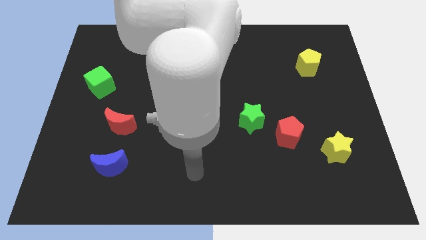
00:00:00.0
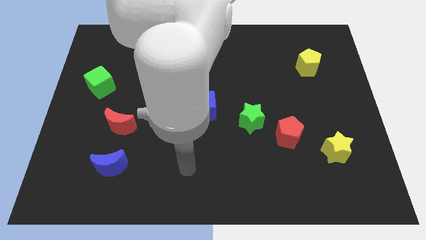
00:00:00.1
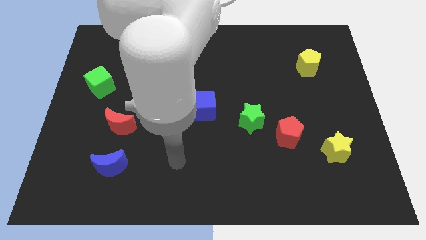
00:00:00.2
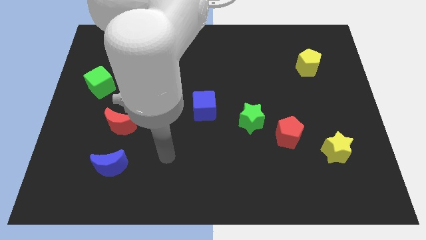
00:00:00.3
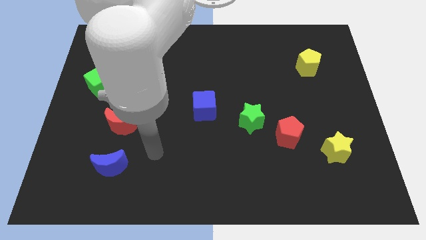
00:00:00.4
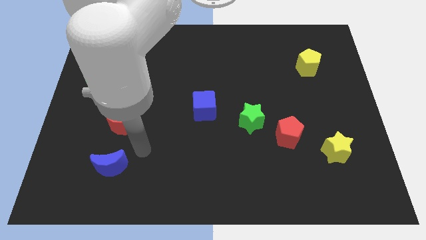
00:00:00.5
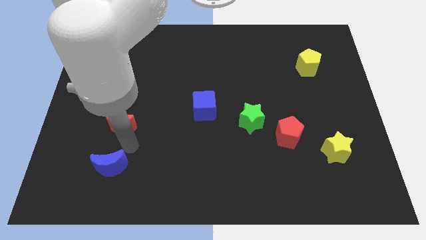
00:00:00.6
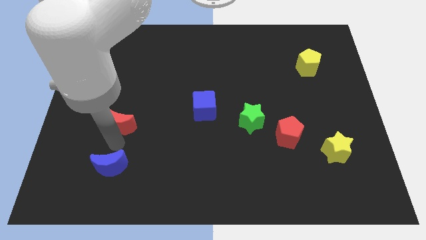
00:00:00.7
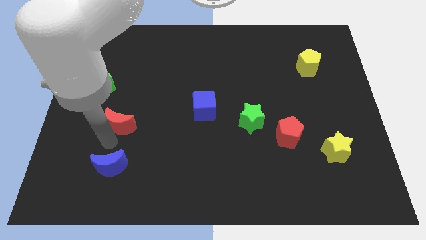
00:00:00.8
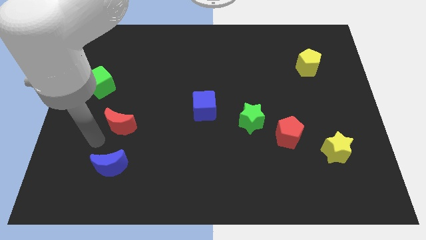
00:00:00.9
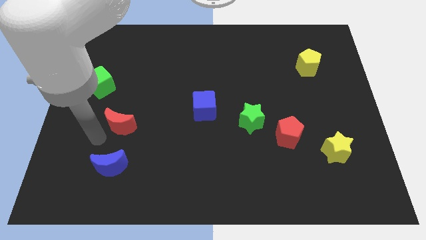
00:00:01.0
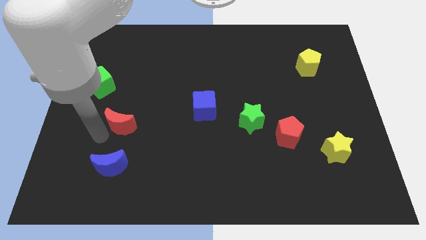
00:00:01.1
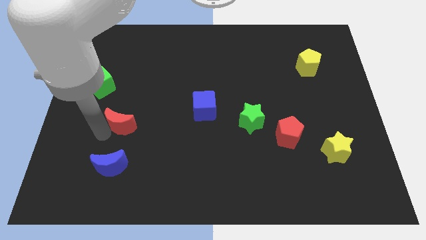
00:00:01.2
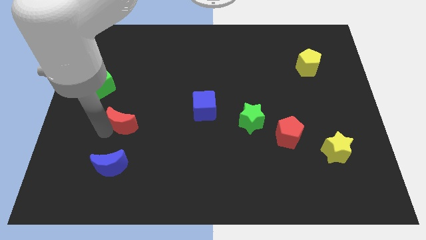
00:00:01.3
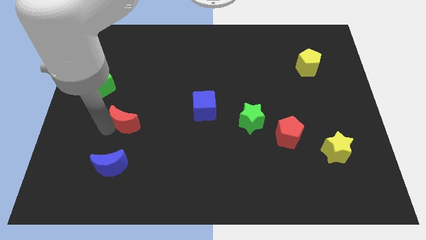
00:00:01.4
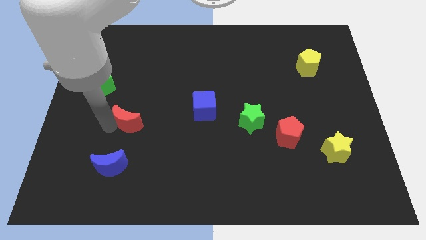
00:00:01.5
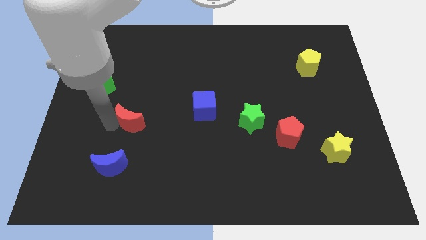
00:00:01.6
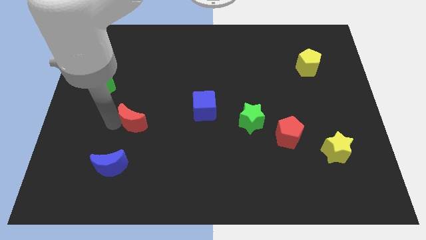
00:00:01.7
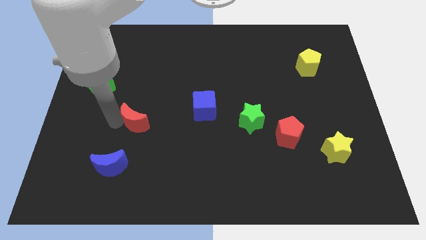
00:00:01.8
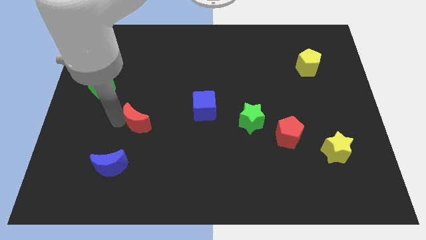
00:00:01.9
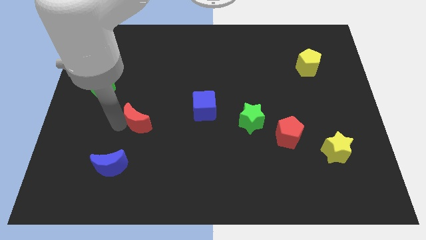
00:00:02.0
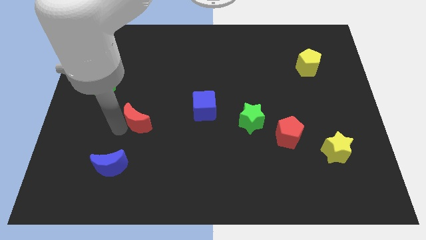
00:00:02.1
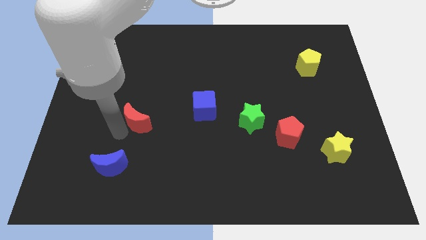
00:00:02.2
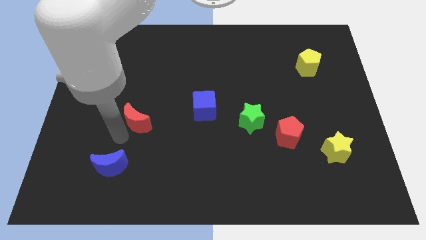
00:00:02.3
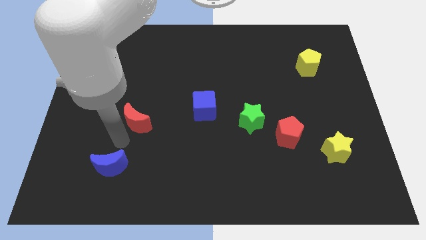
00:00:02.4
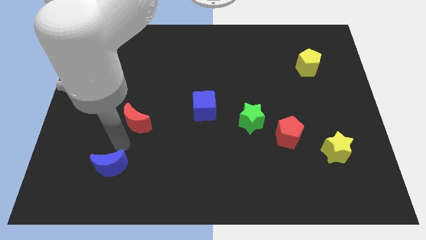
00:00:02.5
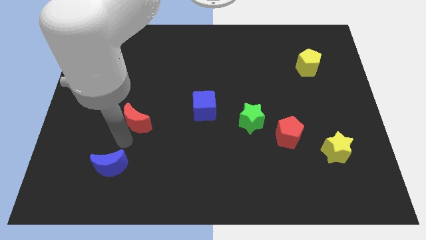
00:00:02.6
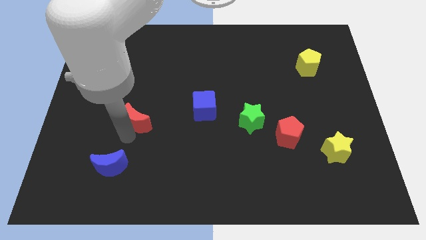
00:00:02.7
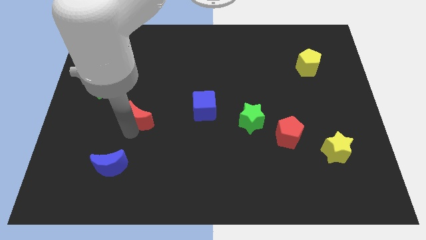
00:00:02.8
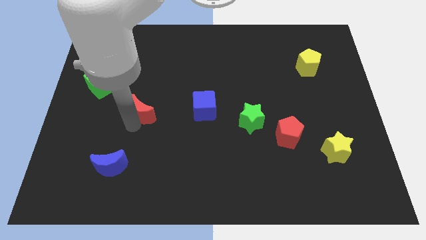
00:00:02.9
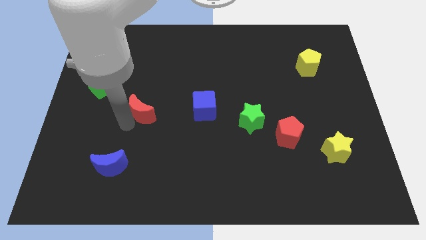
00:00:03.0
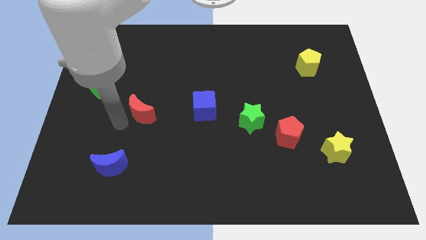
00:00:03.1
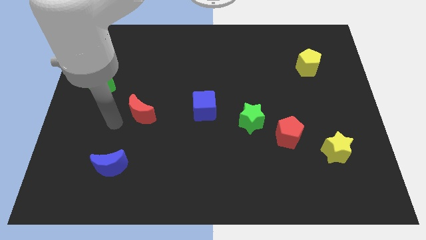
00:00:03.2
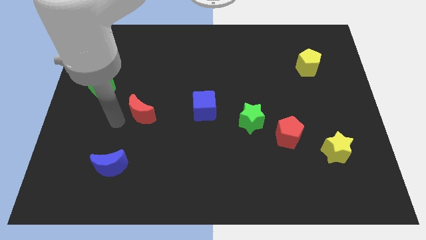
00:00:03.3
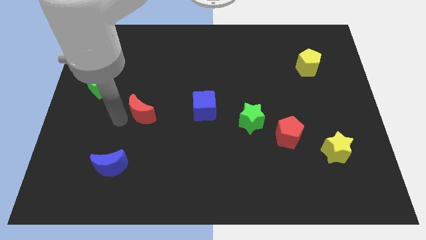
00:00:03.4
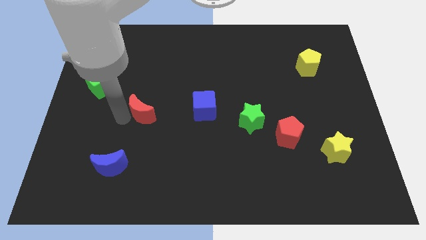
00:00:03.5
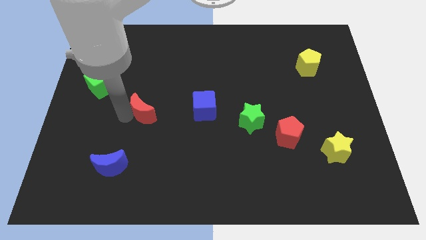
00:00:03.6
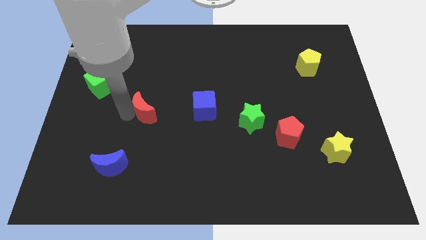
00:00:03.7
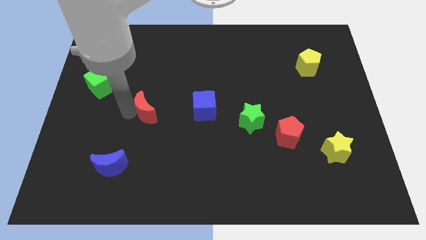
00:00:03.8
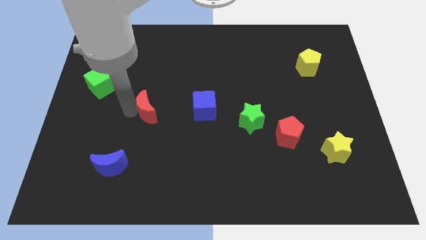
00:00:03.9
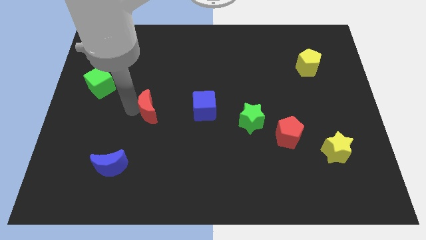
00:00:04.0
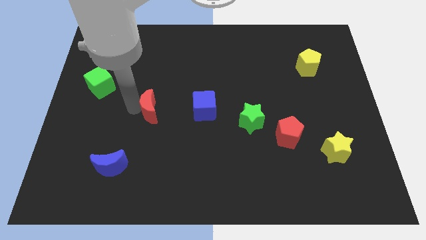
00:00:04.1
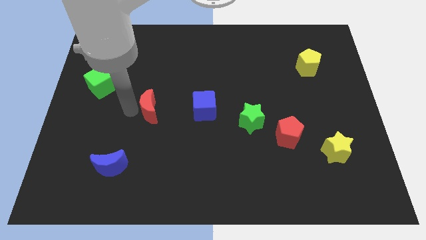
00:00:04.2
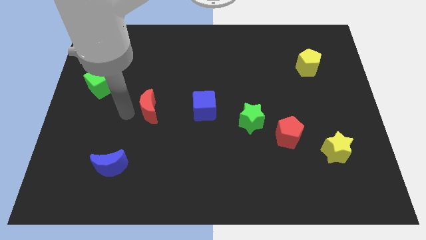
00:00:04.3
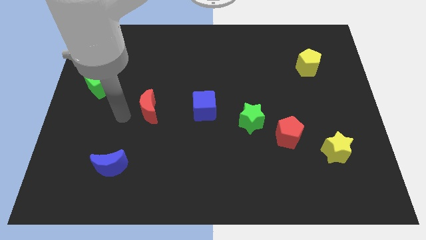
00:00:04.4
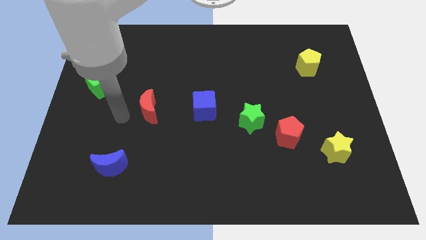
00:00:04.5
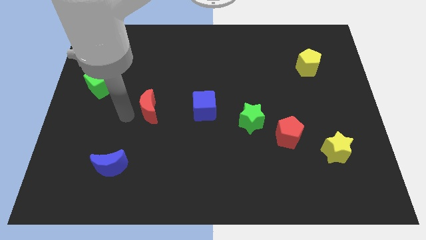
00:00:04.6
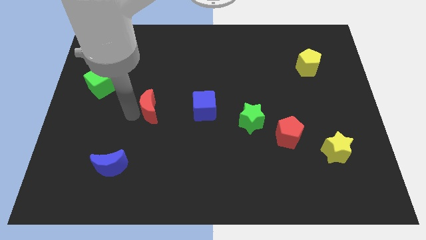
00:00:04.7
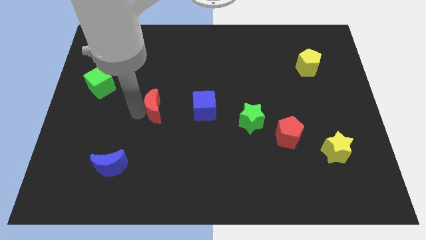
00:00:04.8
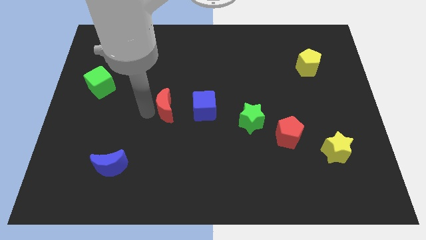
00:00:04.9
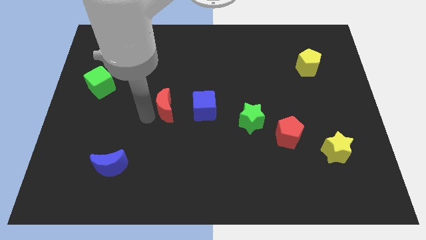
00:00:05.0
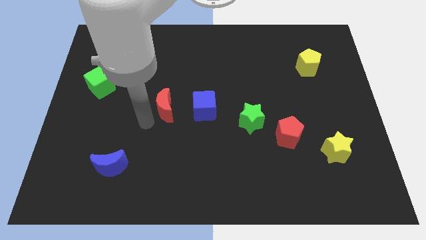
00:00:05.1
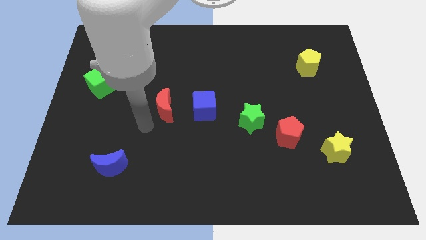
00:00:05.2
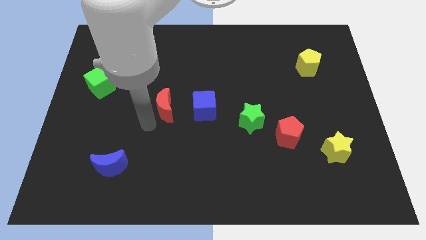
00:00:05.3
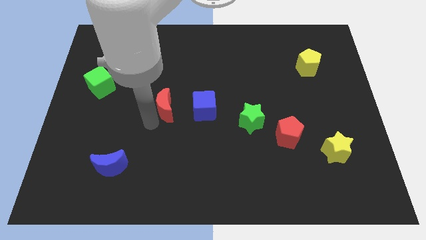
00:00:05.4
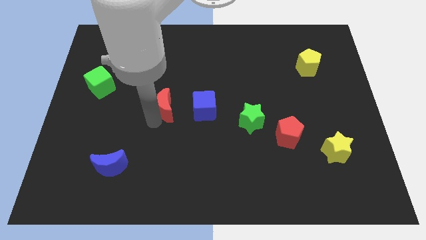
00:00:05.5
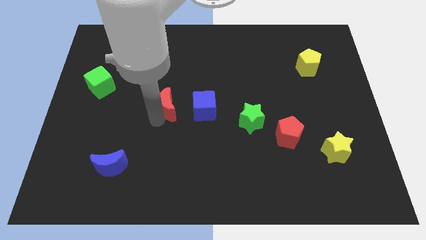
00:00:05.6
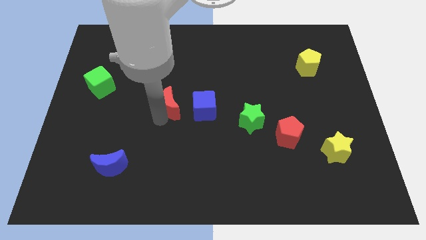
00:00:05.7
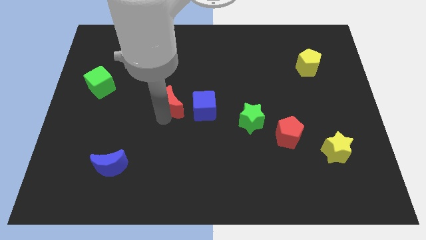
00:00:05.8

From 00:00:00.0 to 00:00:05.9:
push the red moon to the top left side of the blue cube

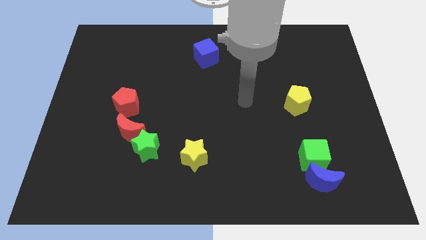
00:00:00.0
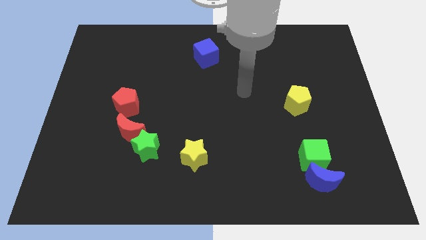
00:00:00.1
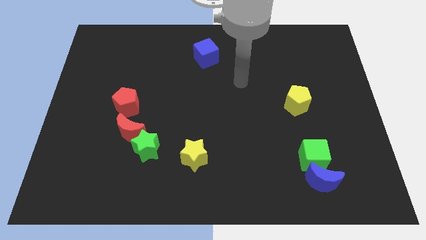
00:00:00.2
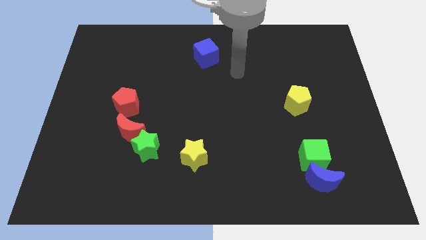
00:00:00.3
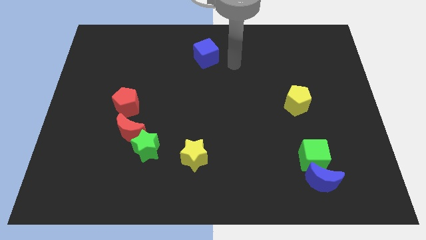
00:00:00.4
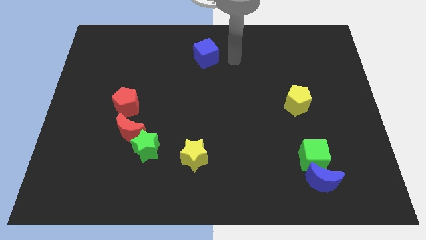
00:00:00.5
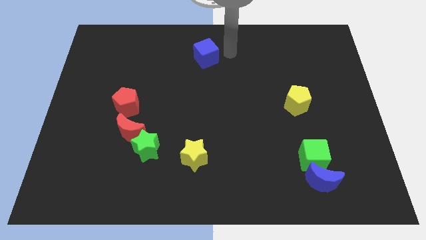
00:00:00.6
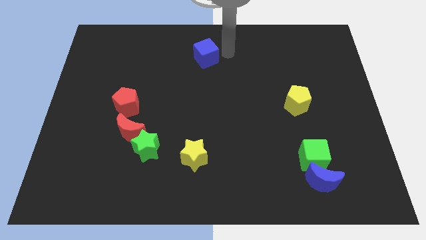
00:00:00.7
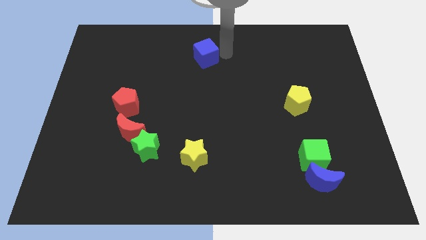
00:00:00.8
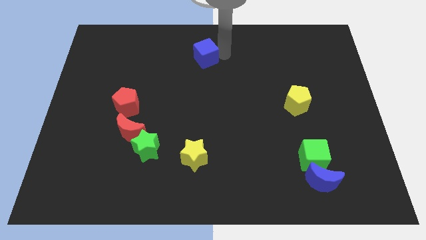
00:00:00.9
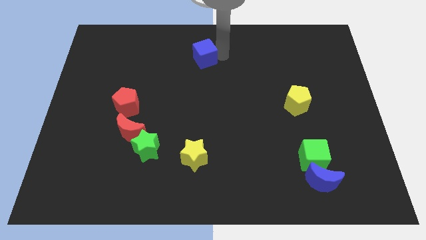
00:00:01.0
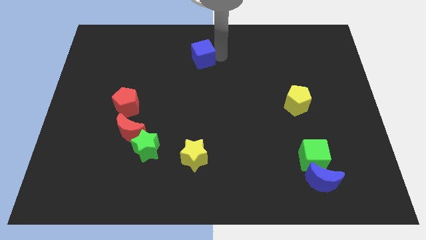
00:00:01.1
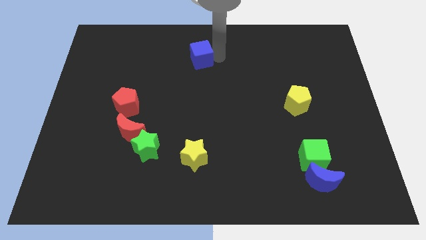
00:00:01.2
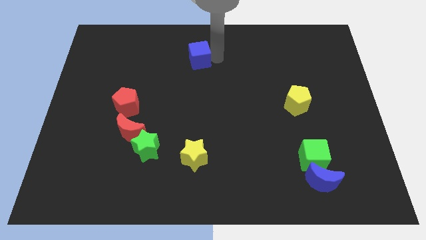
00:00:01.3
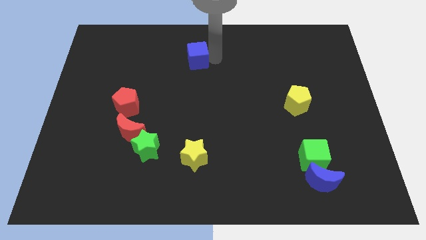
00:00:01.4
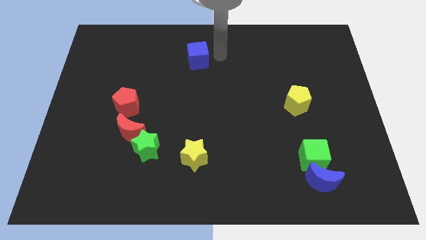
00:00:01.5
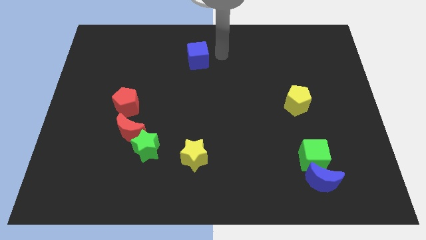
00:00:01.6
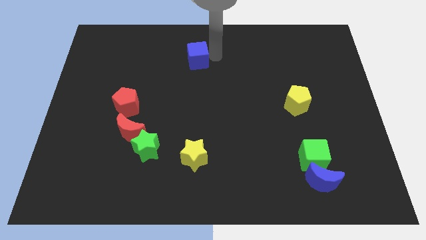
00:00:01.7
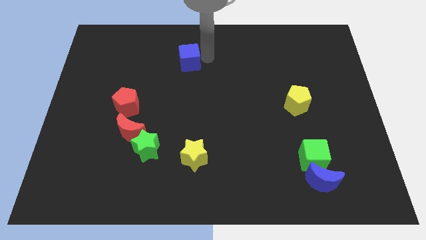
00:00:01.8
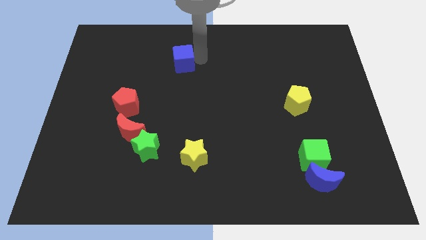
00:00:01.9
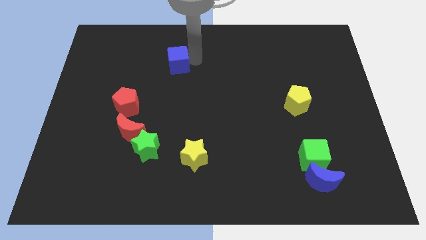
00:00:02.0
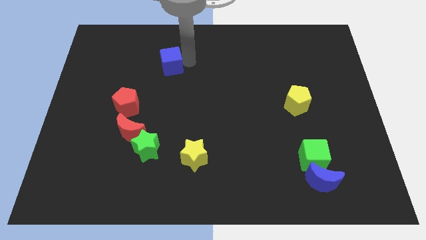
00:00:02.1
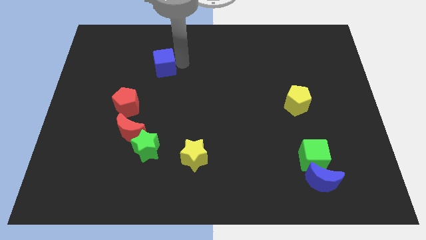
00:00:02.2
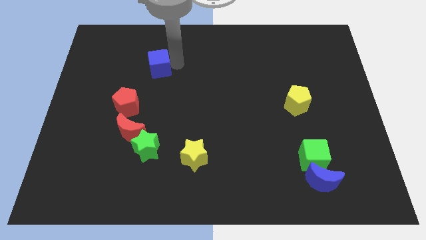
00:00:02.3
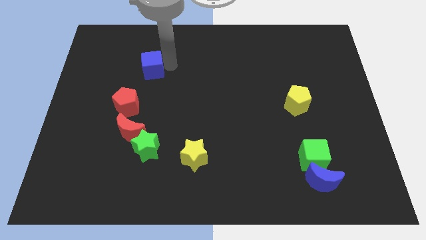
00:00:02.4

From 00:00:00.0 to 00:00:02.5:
put the blue cube above the red pentagon
